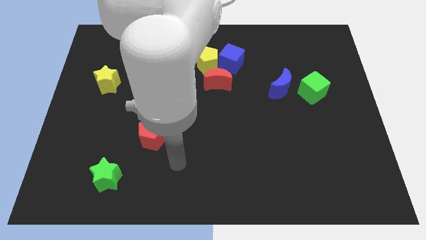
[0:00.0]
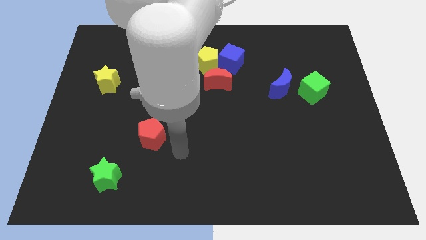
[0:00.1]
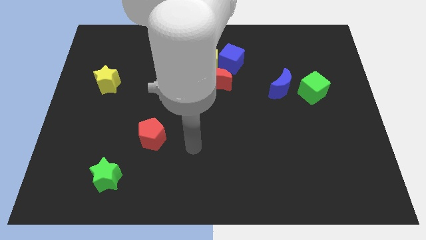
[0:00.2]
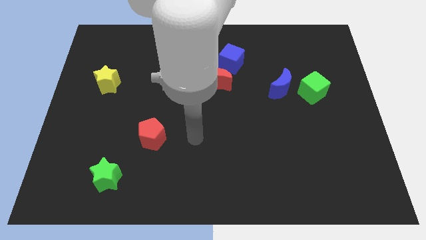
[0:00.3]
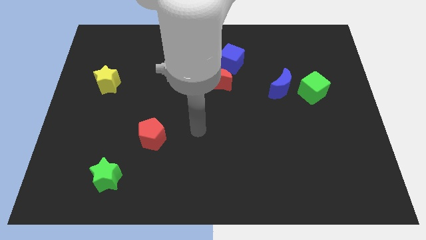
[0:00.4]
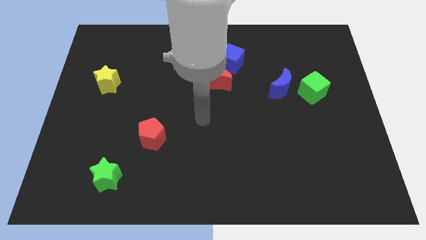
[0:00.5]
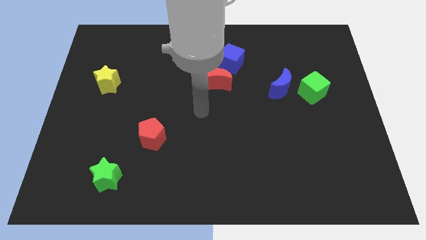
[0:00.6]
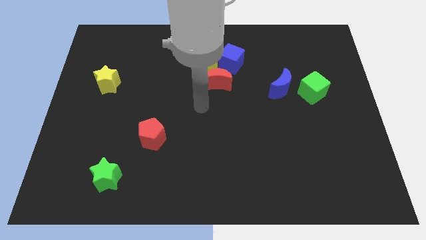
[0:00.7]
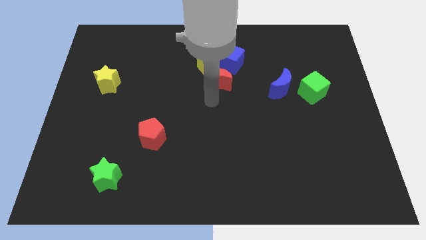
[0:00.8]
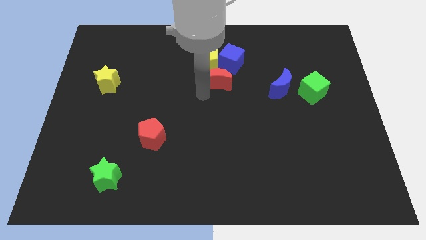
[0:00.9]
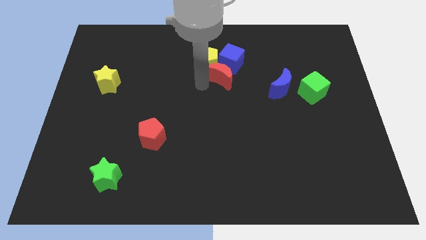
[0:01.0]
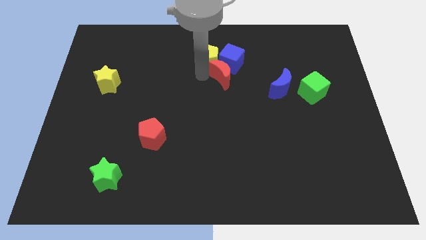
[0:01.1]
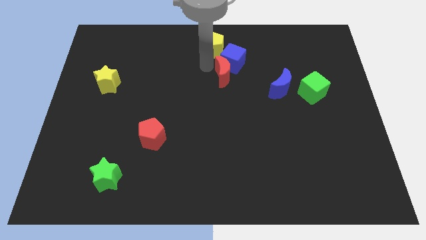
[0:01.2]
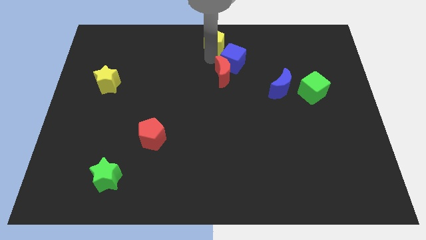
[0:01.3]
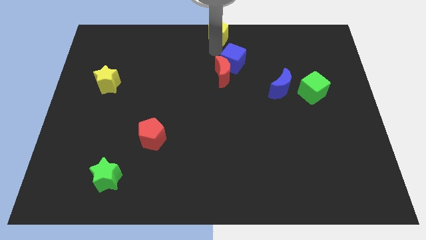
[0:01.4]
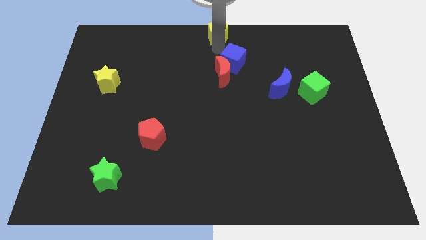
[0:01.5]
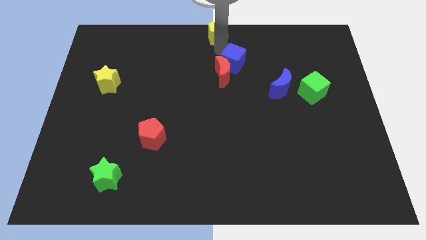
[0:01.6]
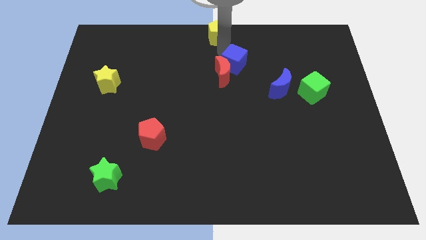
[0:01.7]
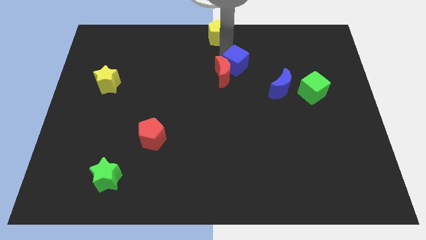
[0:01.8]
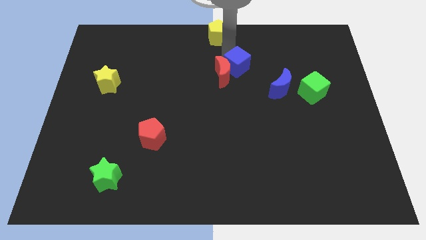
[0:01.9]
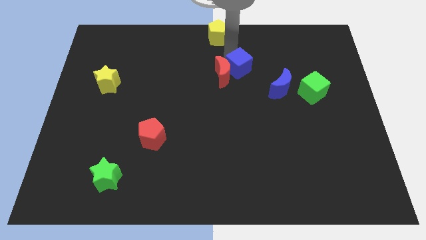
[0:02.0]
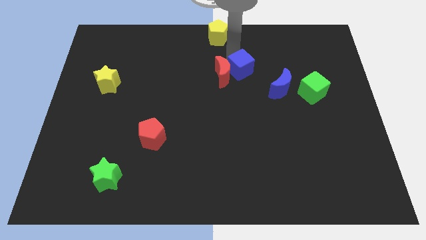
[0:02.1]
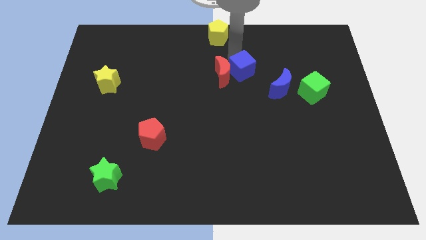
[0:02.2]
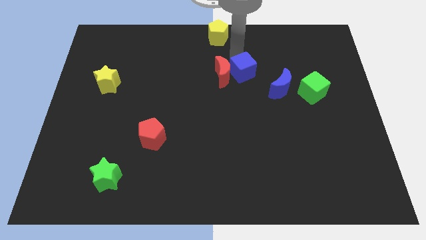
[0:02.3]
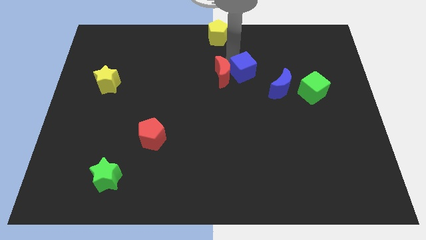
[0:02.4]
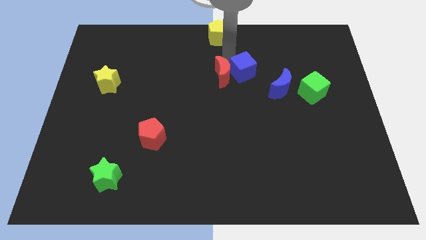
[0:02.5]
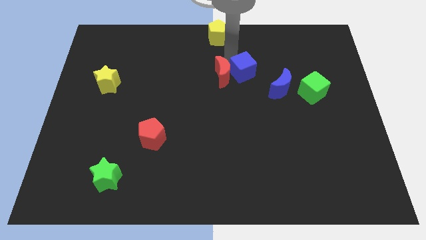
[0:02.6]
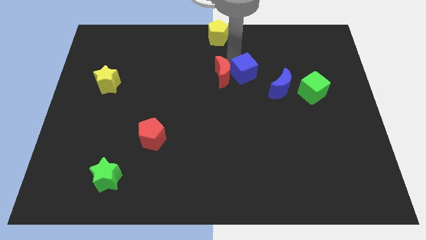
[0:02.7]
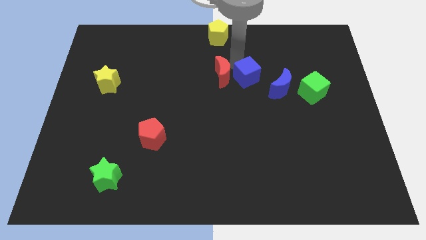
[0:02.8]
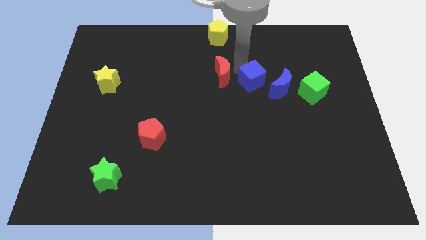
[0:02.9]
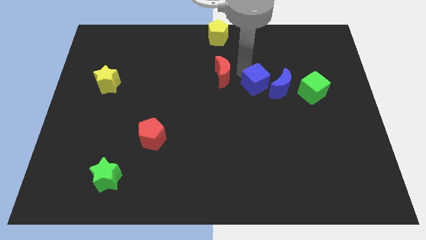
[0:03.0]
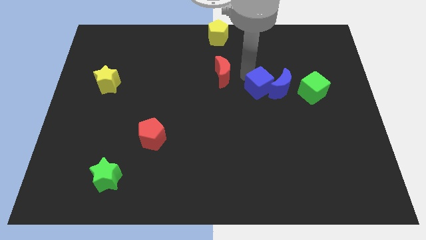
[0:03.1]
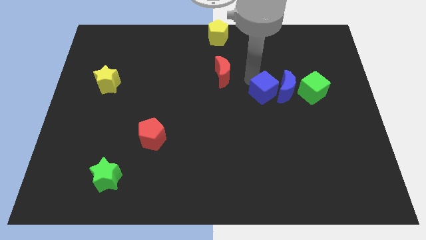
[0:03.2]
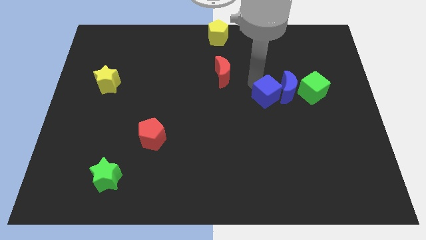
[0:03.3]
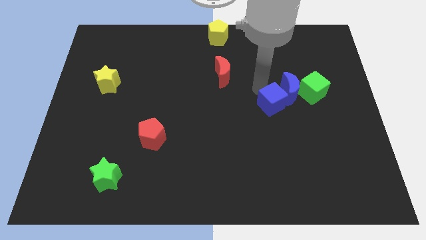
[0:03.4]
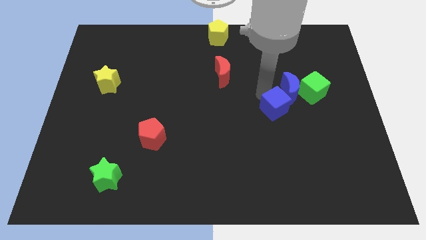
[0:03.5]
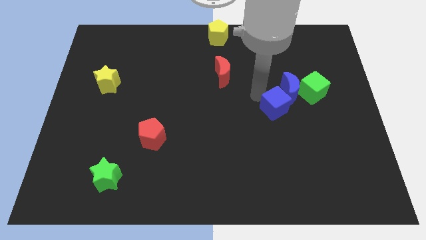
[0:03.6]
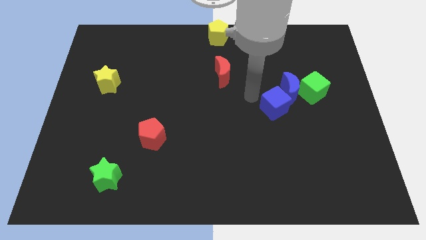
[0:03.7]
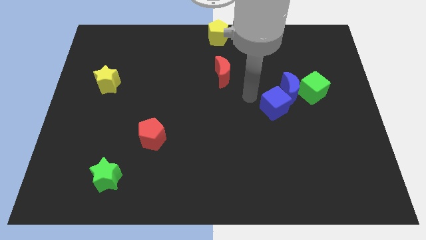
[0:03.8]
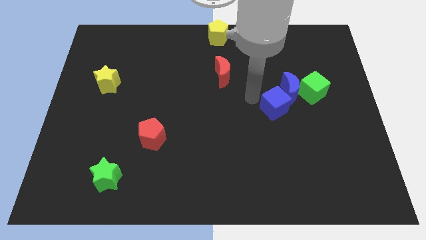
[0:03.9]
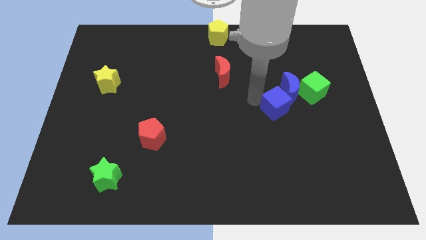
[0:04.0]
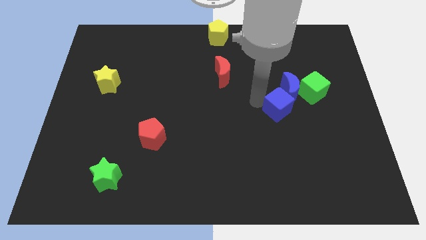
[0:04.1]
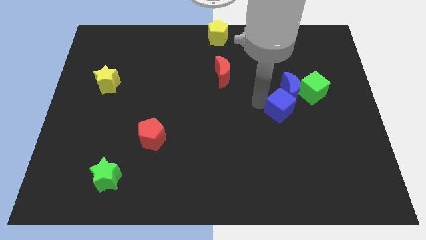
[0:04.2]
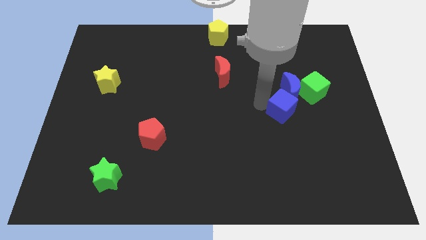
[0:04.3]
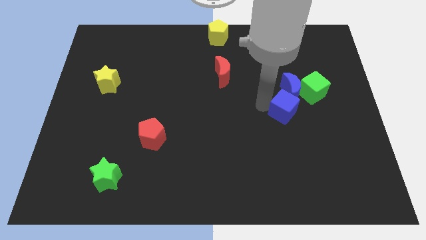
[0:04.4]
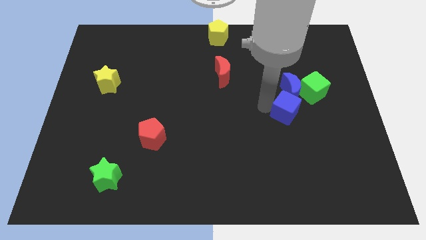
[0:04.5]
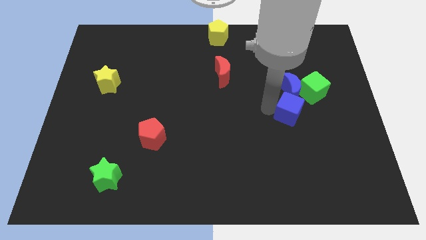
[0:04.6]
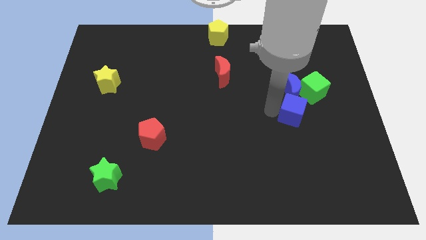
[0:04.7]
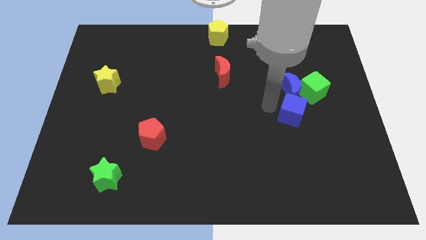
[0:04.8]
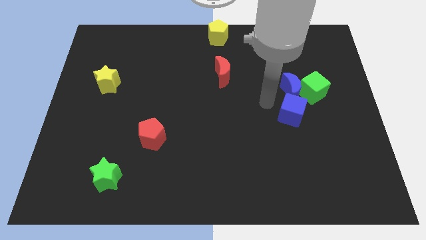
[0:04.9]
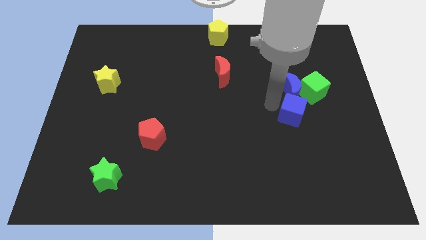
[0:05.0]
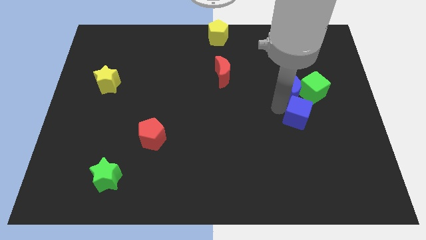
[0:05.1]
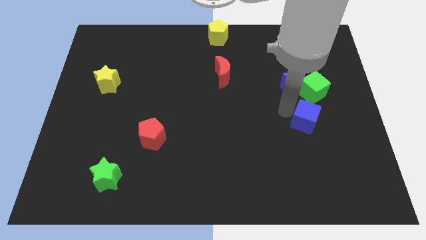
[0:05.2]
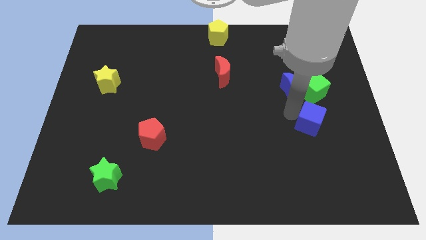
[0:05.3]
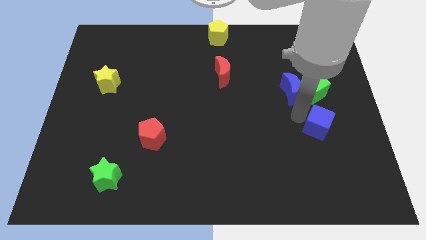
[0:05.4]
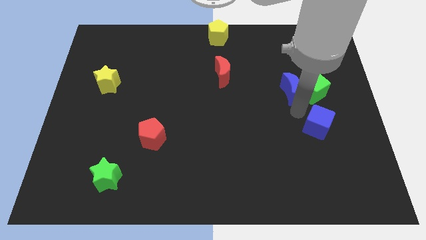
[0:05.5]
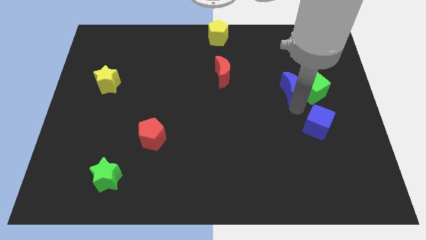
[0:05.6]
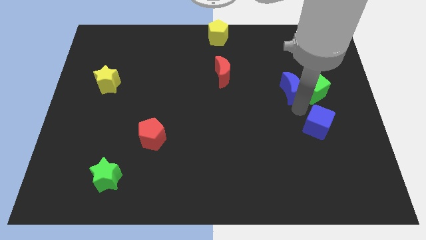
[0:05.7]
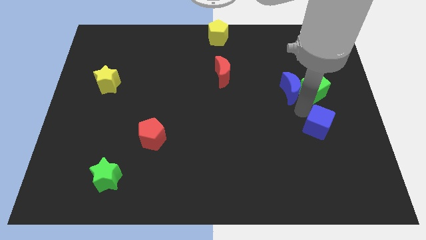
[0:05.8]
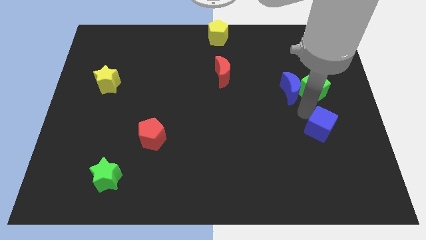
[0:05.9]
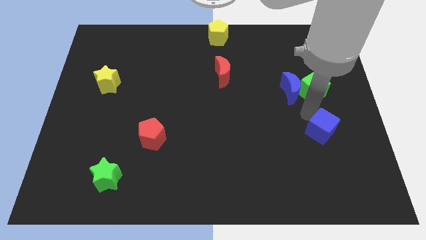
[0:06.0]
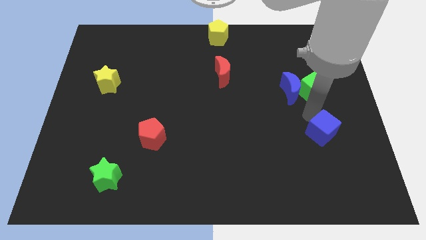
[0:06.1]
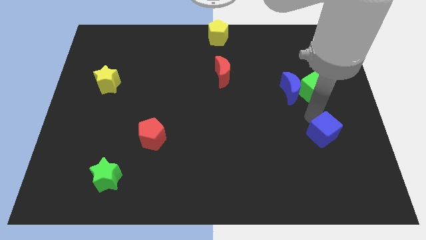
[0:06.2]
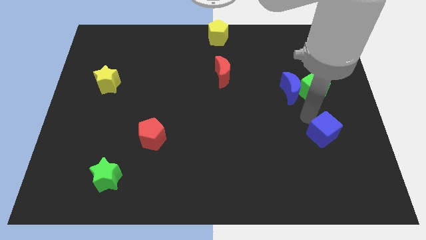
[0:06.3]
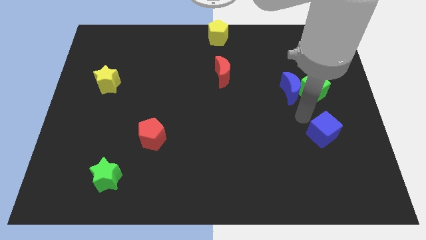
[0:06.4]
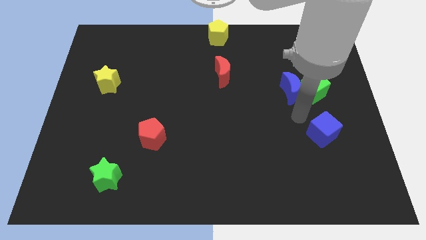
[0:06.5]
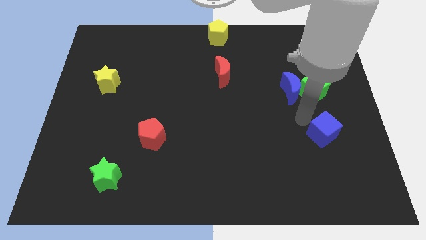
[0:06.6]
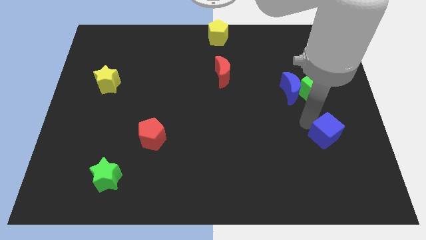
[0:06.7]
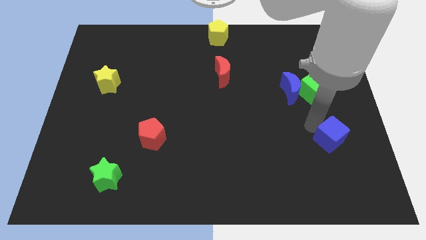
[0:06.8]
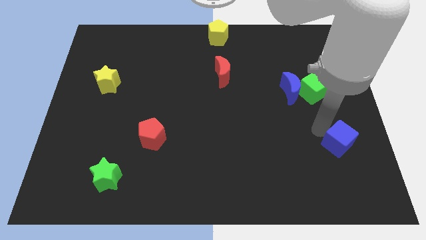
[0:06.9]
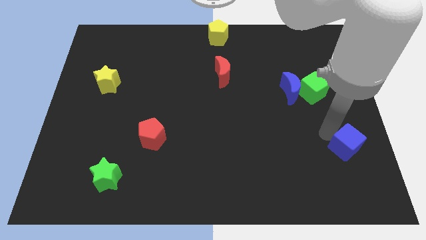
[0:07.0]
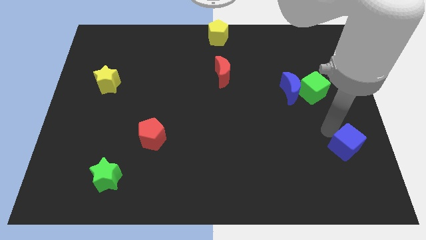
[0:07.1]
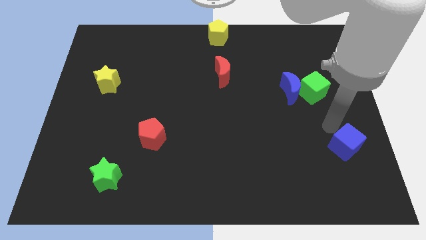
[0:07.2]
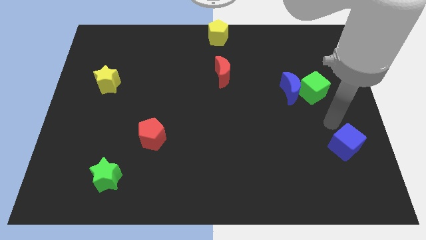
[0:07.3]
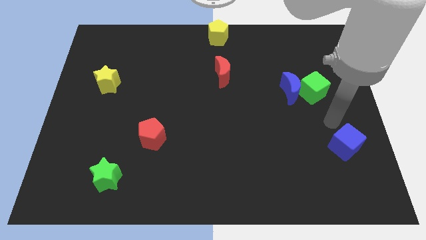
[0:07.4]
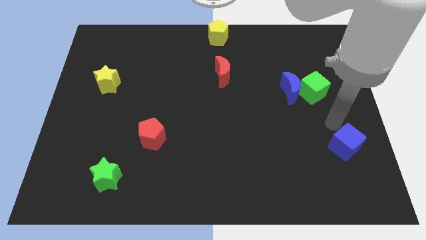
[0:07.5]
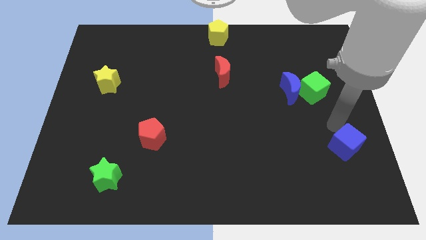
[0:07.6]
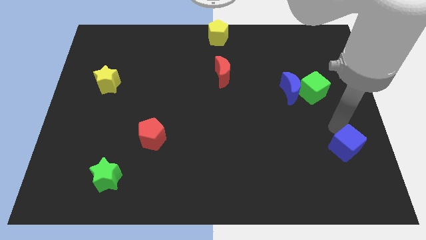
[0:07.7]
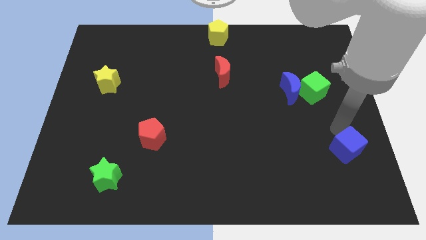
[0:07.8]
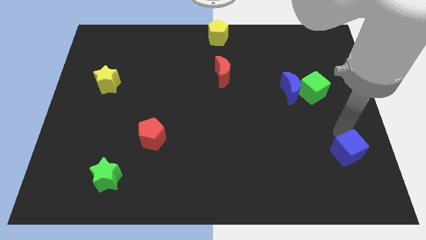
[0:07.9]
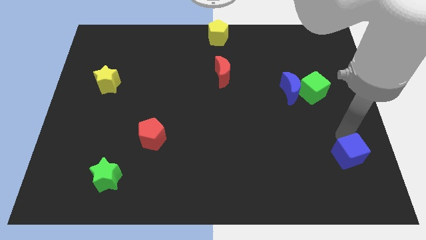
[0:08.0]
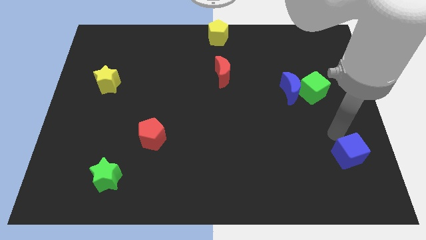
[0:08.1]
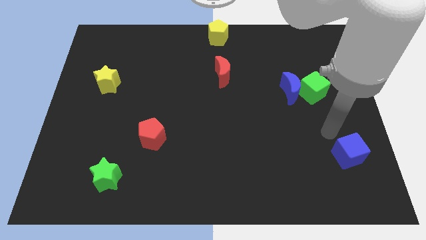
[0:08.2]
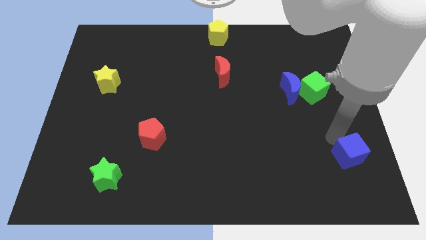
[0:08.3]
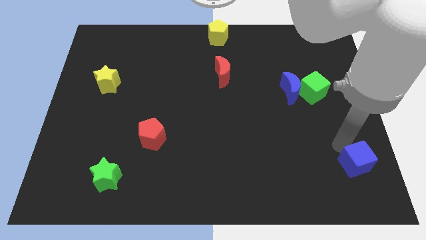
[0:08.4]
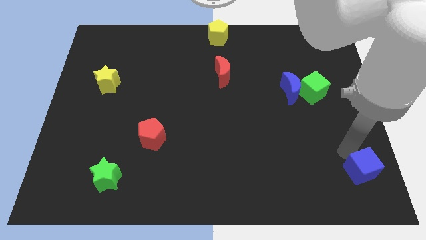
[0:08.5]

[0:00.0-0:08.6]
put the blue cube to the bottom right of the board
